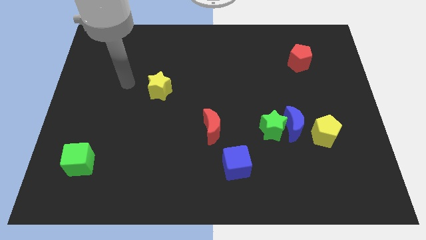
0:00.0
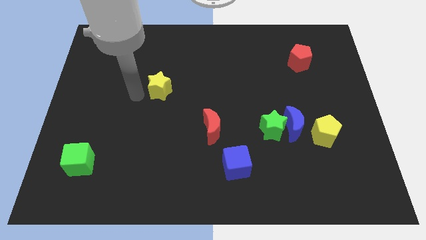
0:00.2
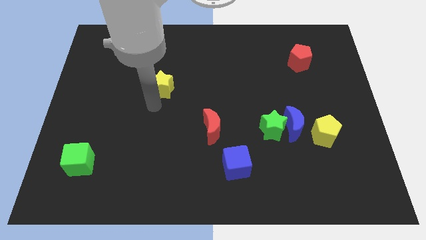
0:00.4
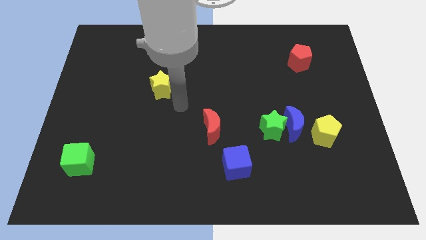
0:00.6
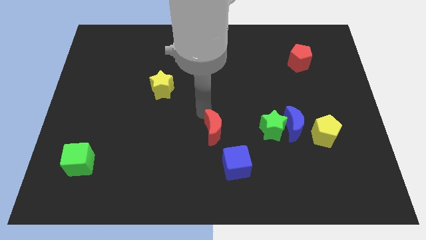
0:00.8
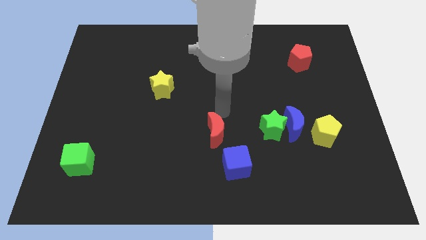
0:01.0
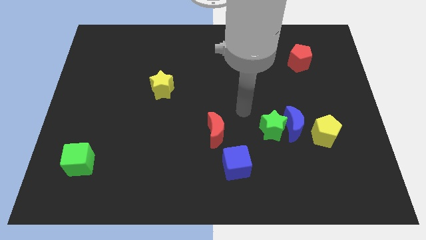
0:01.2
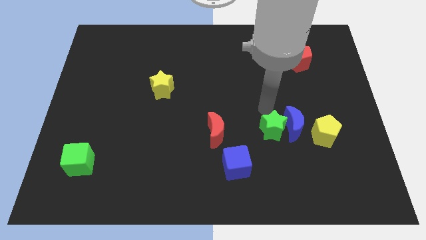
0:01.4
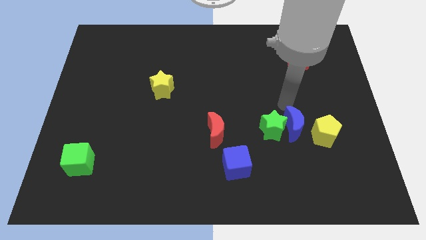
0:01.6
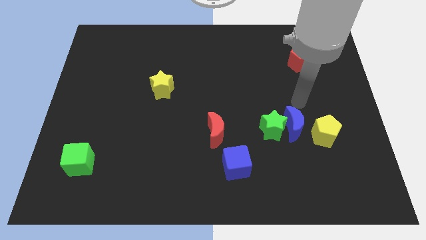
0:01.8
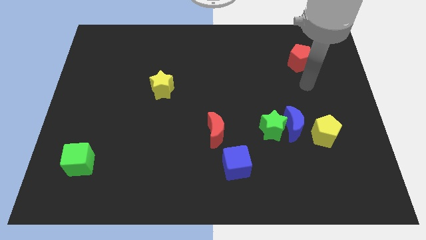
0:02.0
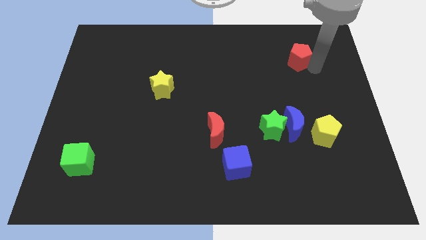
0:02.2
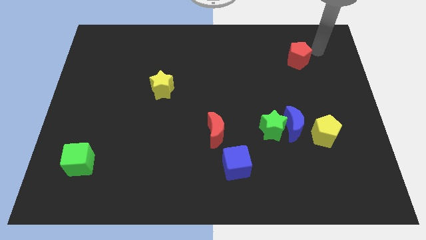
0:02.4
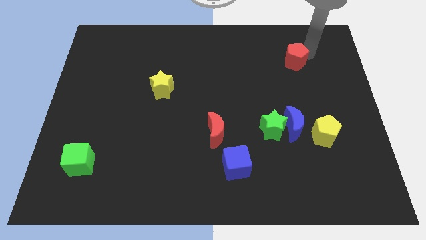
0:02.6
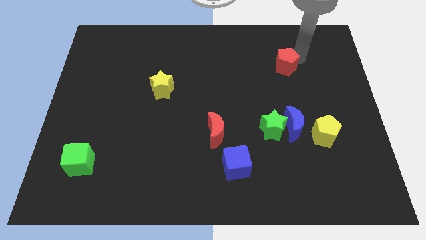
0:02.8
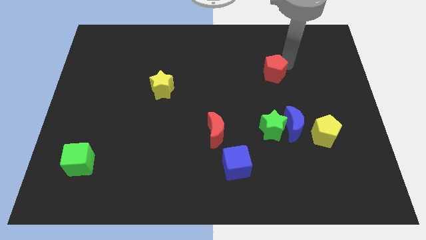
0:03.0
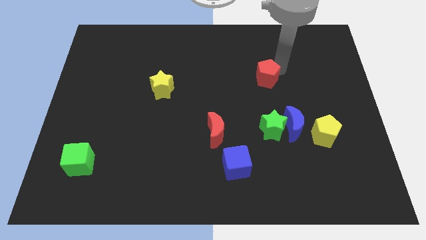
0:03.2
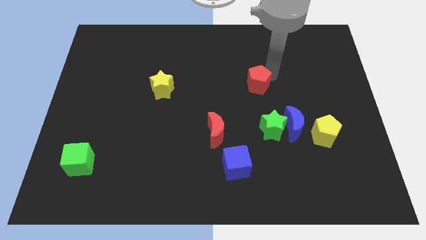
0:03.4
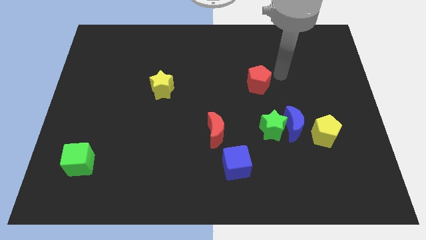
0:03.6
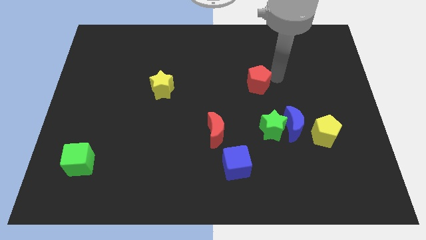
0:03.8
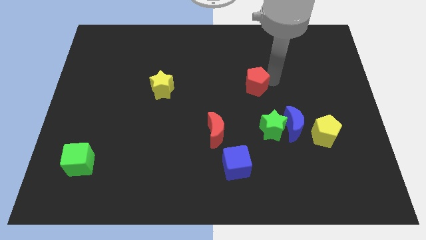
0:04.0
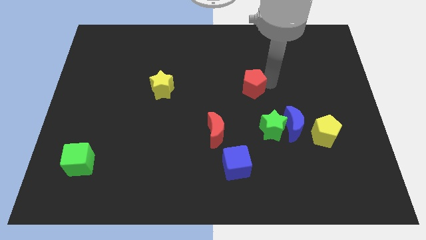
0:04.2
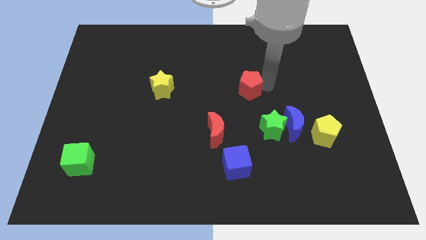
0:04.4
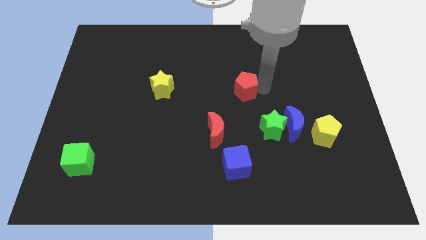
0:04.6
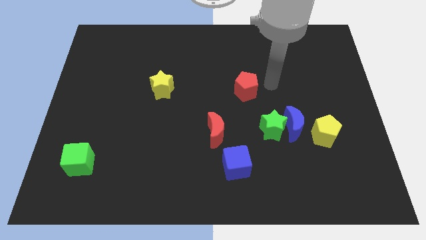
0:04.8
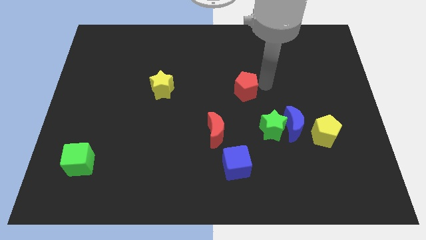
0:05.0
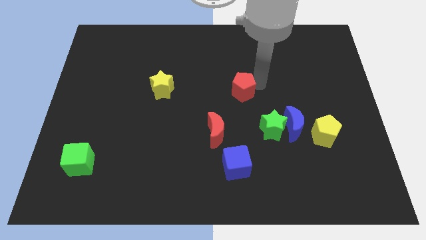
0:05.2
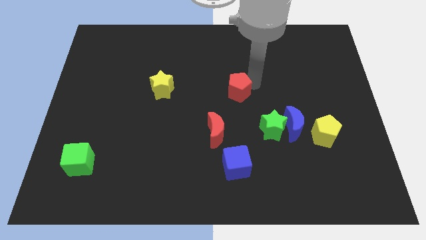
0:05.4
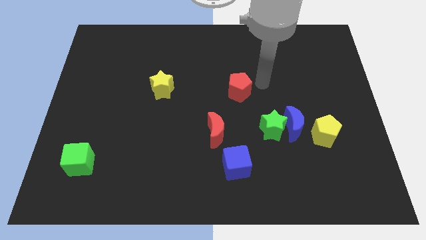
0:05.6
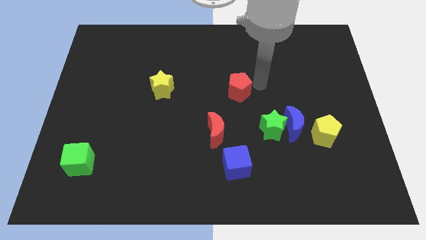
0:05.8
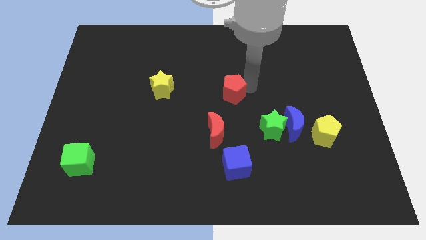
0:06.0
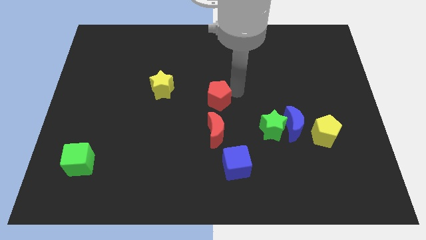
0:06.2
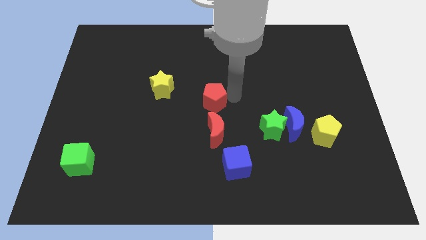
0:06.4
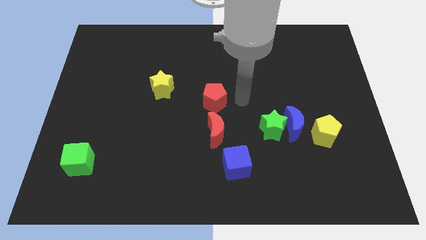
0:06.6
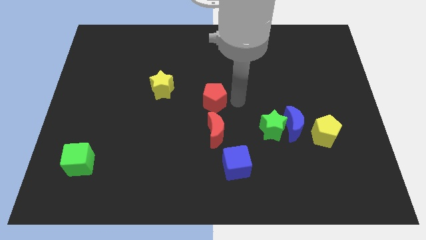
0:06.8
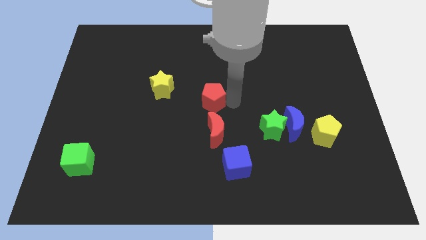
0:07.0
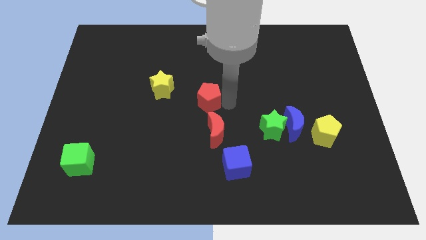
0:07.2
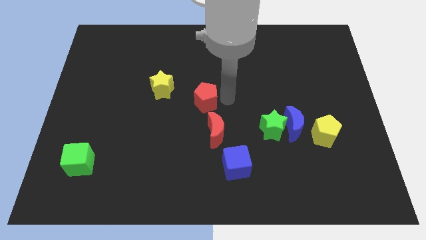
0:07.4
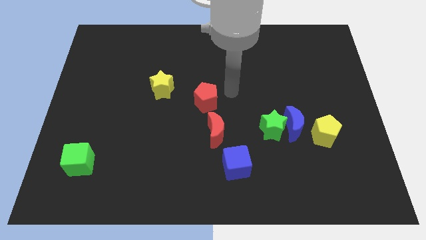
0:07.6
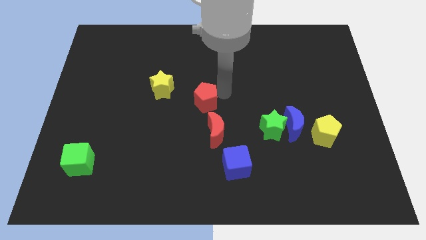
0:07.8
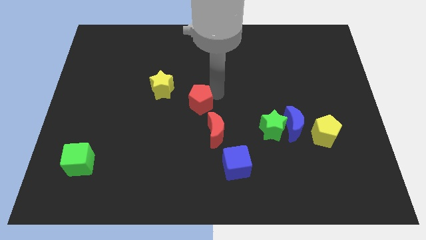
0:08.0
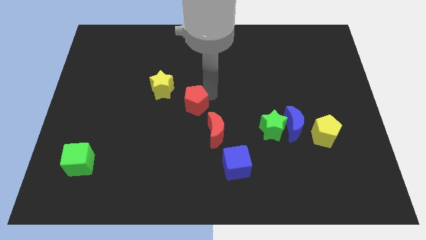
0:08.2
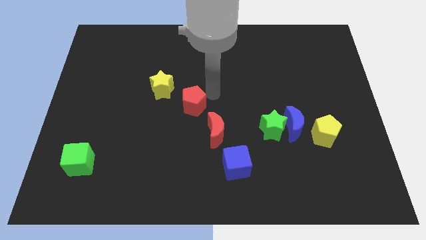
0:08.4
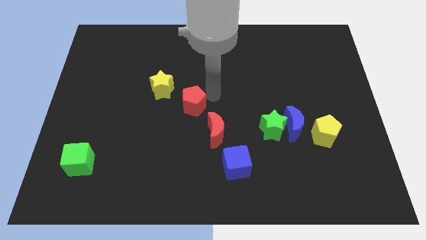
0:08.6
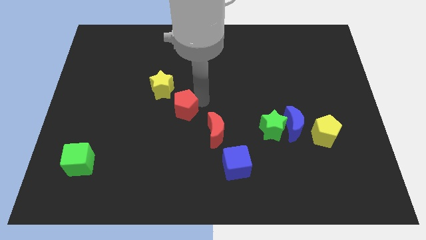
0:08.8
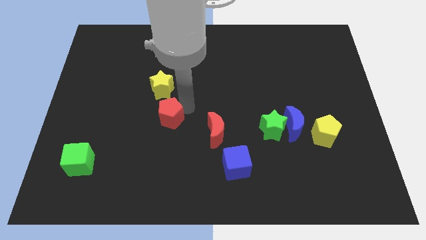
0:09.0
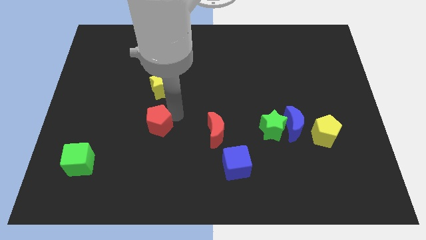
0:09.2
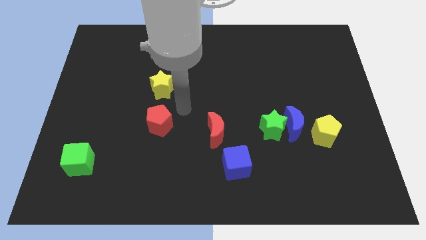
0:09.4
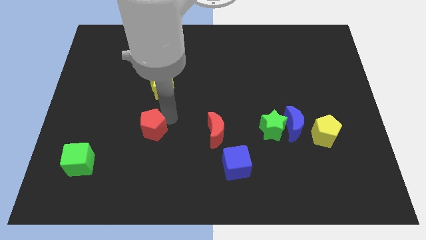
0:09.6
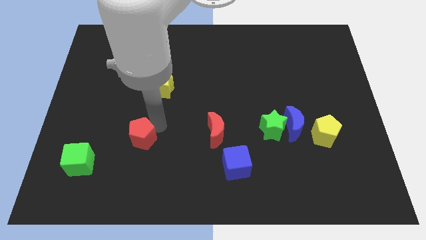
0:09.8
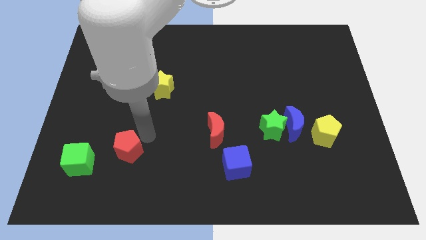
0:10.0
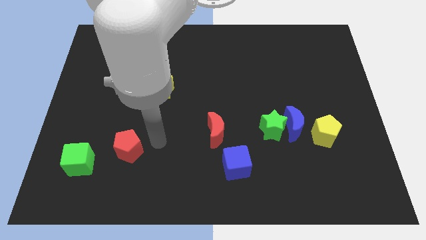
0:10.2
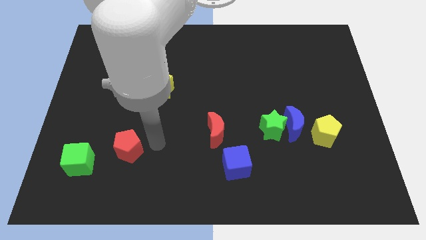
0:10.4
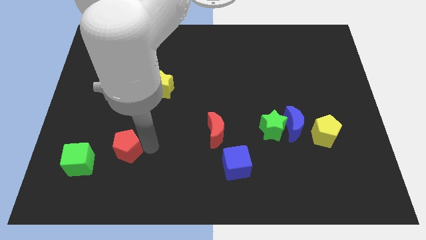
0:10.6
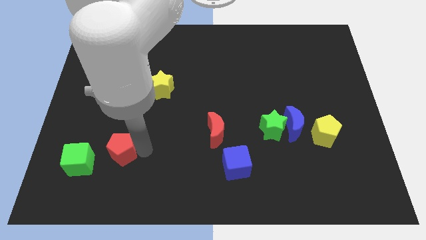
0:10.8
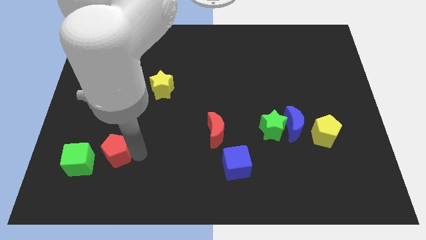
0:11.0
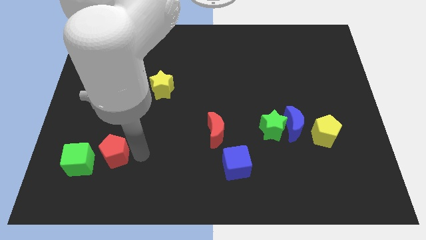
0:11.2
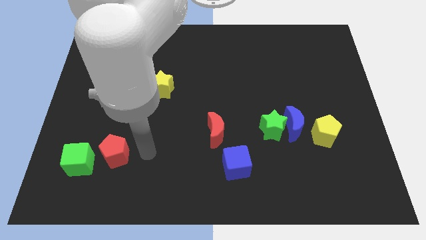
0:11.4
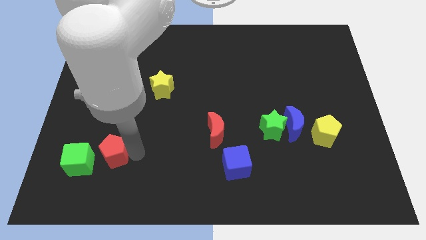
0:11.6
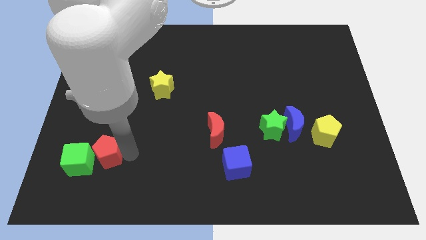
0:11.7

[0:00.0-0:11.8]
put the red pentagon towards the green cube

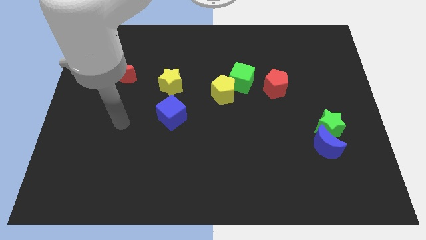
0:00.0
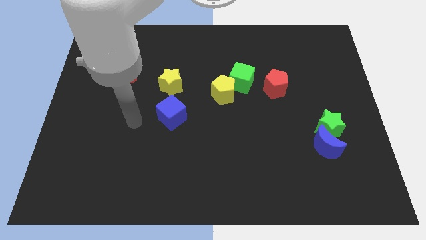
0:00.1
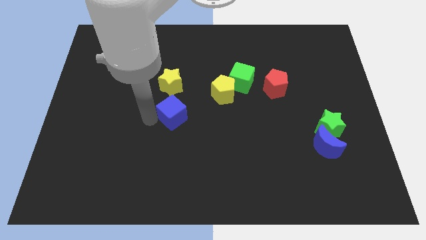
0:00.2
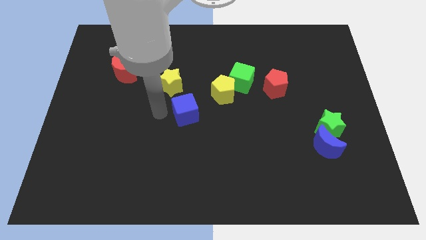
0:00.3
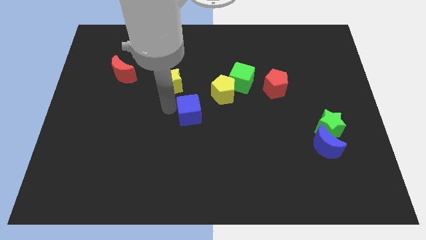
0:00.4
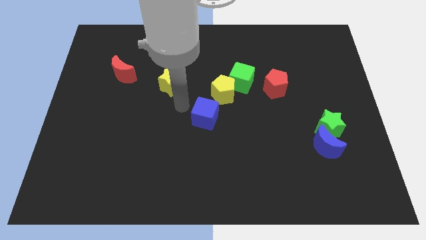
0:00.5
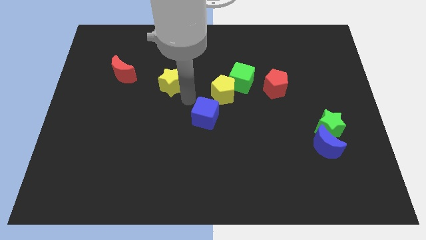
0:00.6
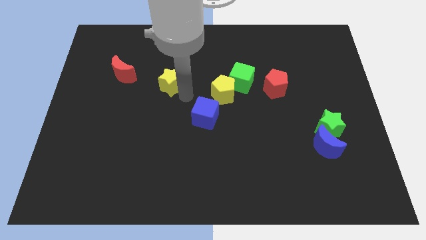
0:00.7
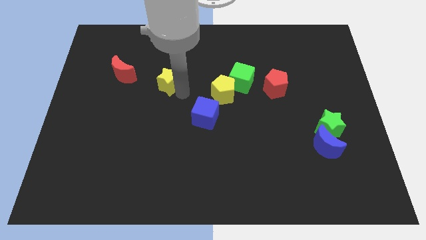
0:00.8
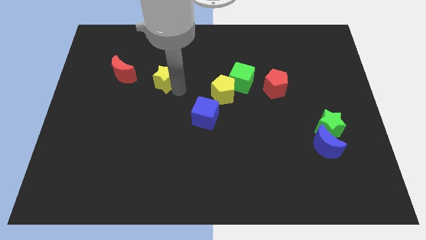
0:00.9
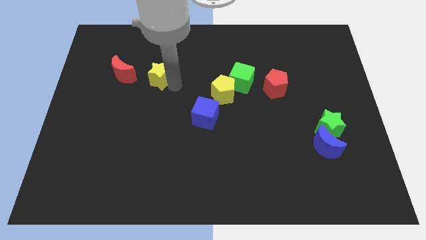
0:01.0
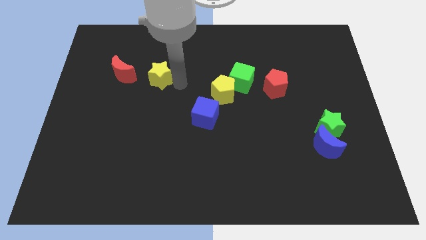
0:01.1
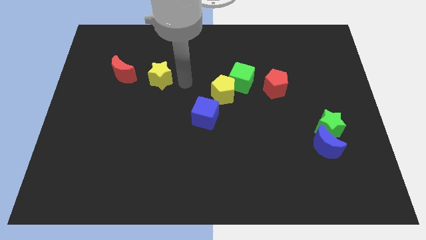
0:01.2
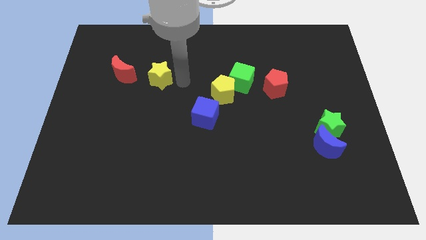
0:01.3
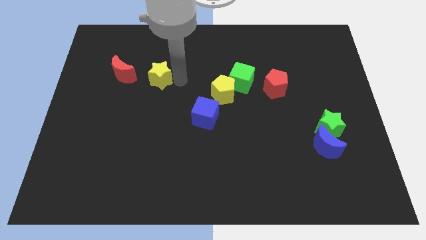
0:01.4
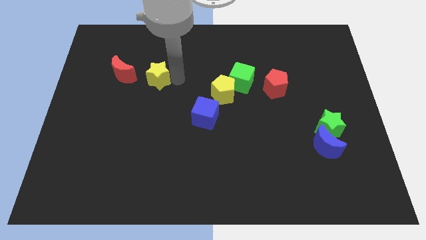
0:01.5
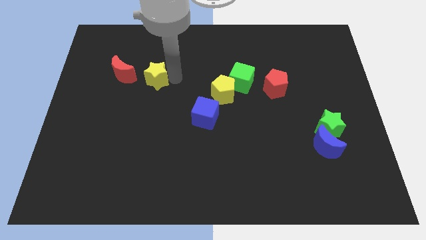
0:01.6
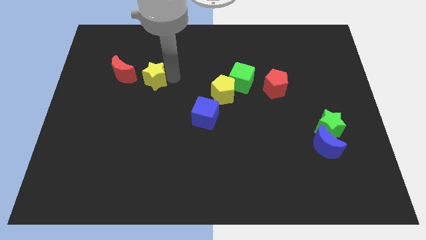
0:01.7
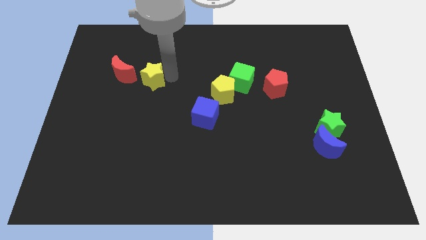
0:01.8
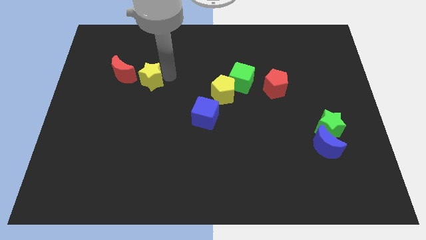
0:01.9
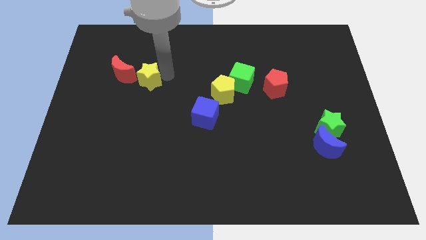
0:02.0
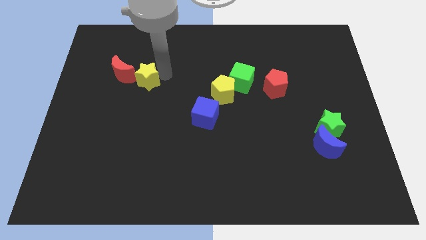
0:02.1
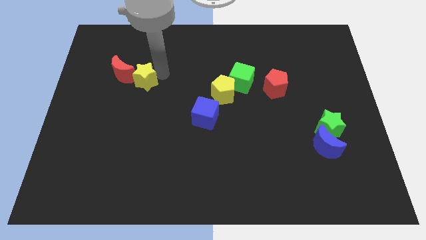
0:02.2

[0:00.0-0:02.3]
put the yellow star close to the red moon
